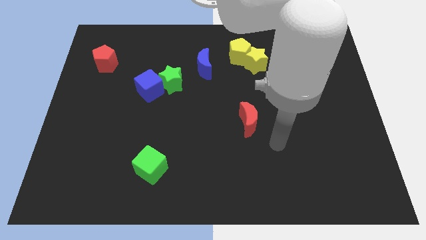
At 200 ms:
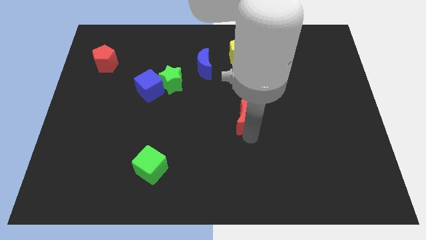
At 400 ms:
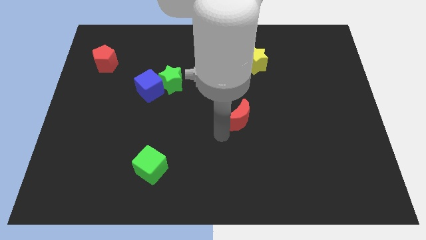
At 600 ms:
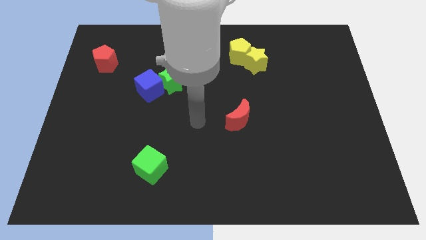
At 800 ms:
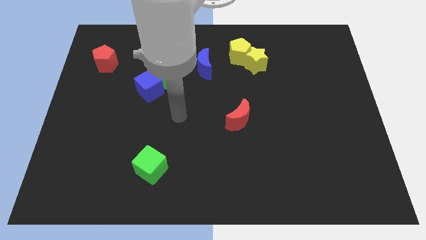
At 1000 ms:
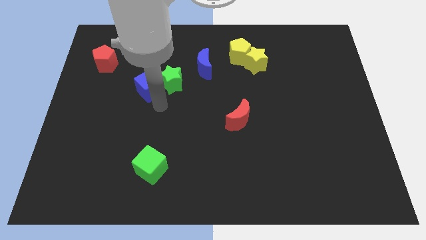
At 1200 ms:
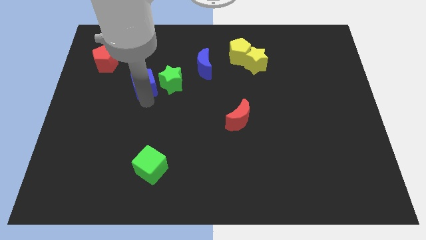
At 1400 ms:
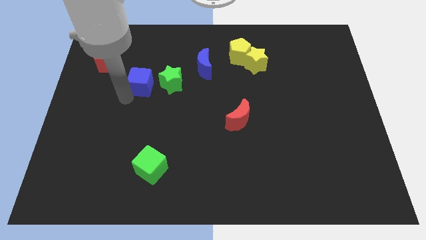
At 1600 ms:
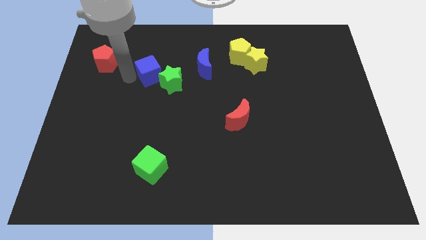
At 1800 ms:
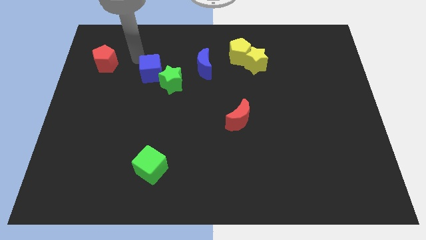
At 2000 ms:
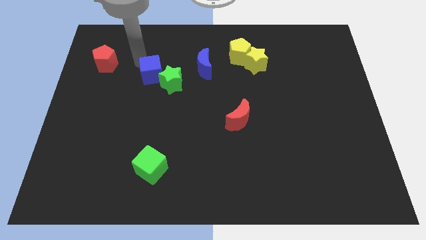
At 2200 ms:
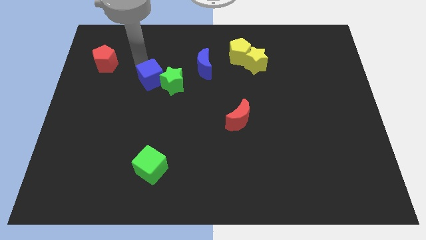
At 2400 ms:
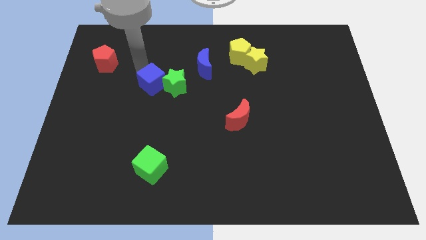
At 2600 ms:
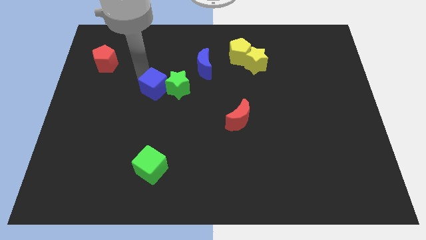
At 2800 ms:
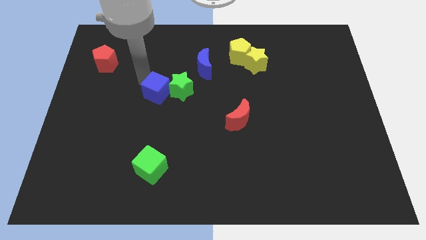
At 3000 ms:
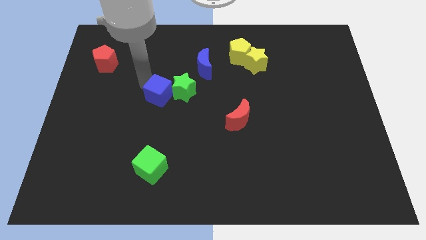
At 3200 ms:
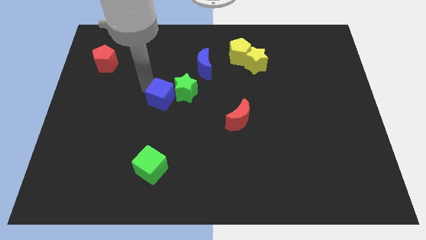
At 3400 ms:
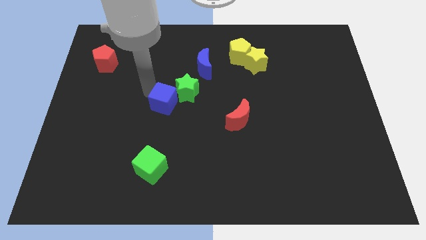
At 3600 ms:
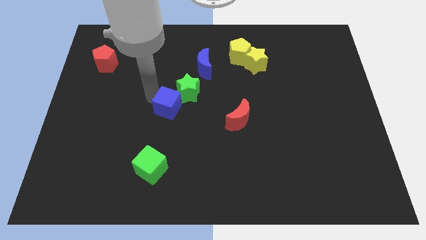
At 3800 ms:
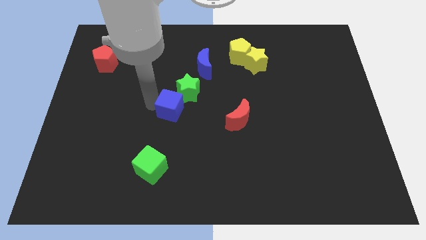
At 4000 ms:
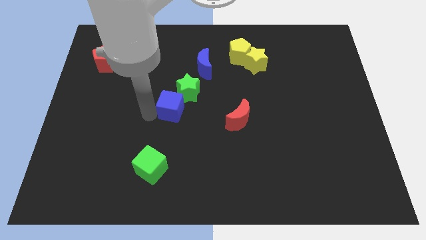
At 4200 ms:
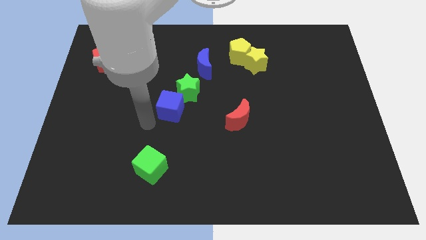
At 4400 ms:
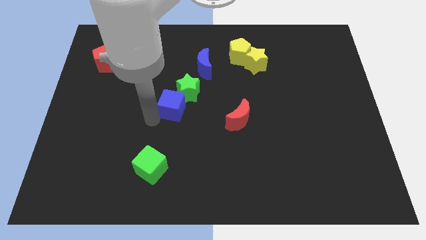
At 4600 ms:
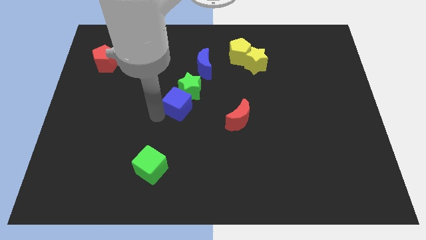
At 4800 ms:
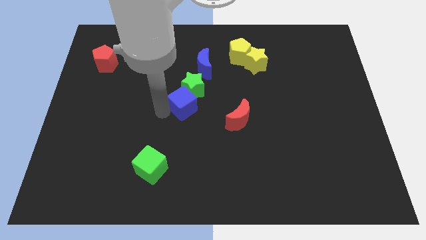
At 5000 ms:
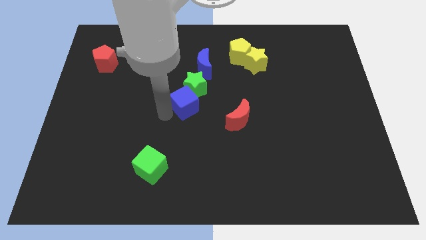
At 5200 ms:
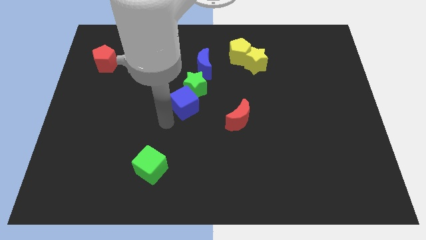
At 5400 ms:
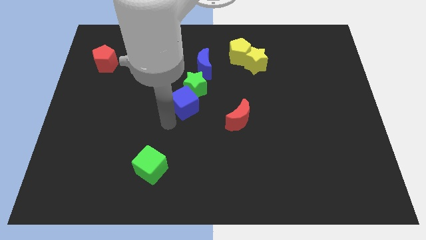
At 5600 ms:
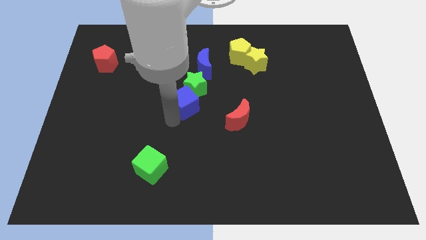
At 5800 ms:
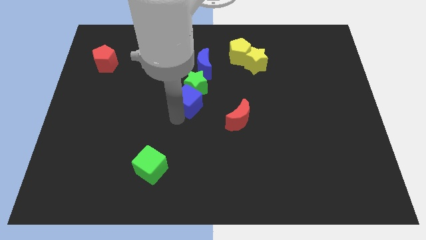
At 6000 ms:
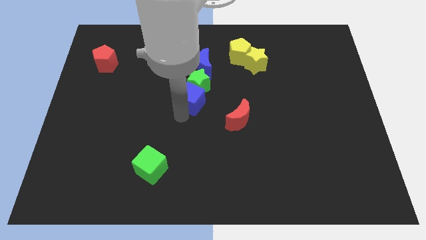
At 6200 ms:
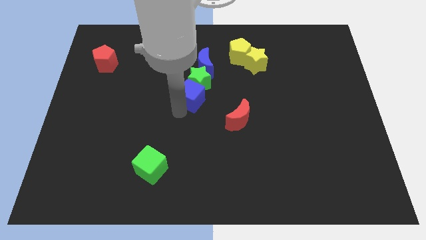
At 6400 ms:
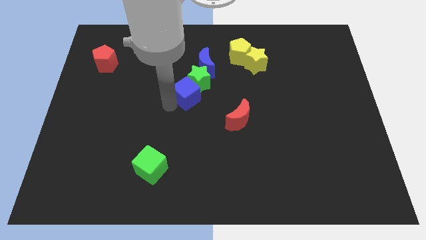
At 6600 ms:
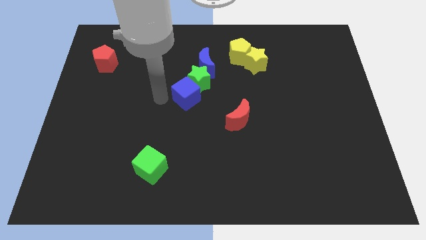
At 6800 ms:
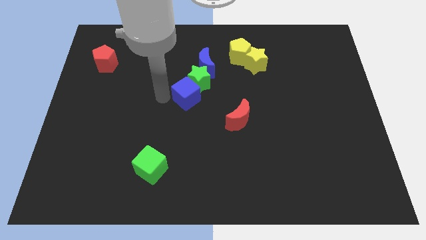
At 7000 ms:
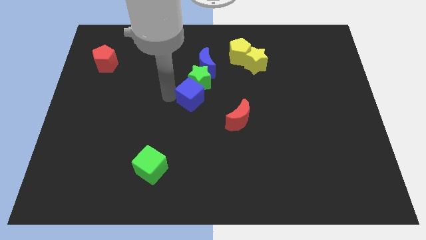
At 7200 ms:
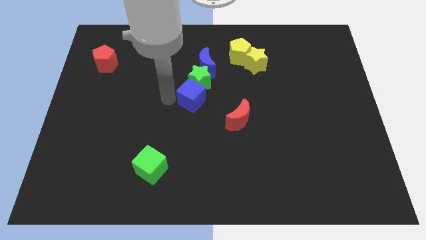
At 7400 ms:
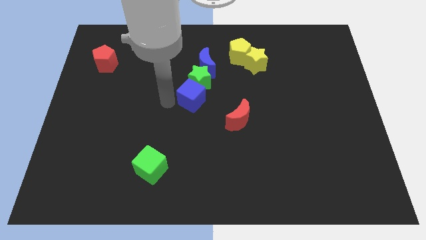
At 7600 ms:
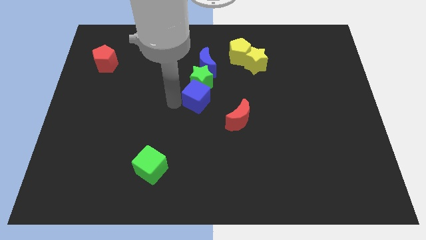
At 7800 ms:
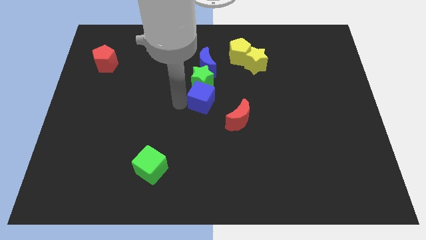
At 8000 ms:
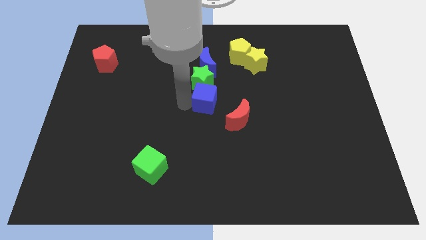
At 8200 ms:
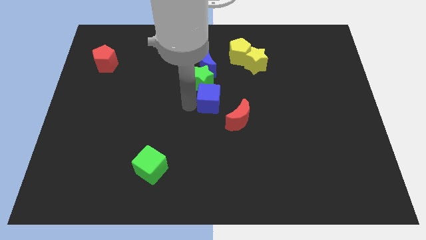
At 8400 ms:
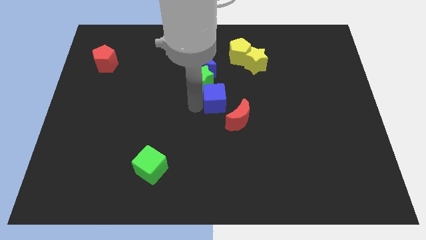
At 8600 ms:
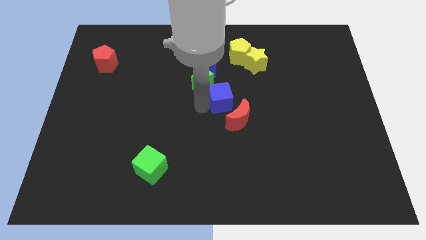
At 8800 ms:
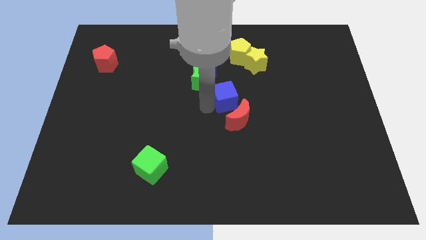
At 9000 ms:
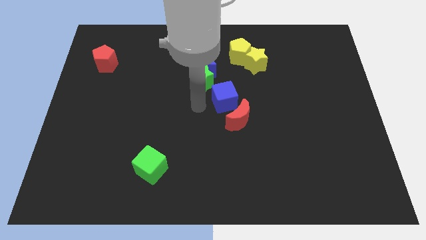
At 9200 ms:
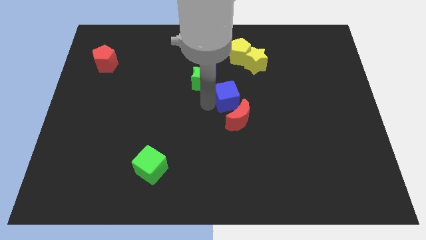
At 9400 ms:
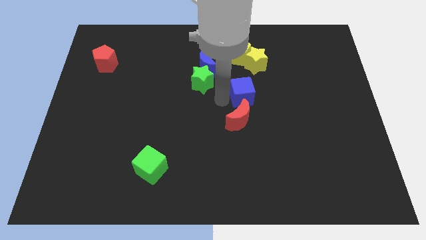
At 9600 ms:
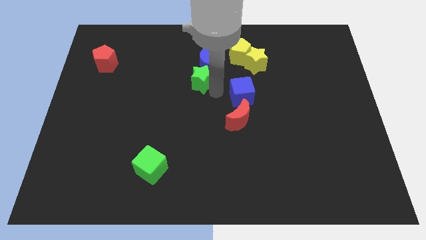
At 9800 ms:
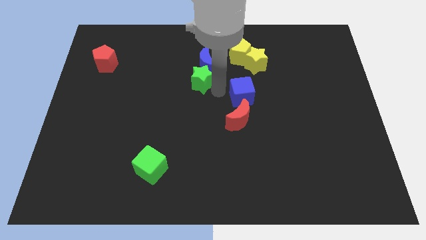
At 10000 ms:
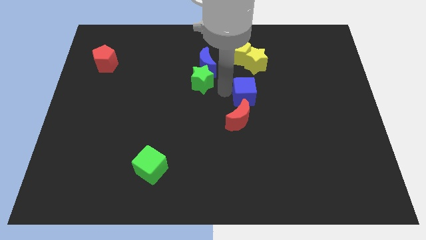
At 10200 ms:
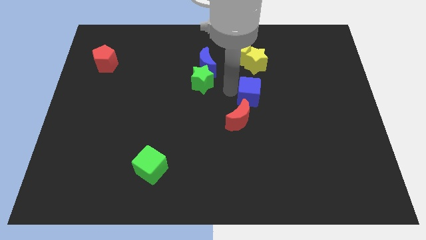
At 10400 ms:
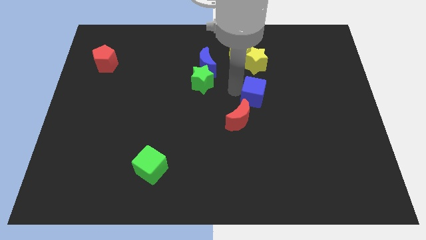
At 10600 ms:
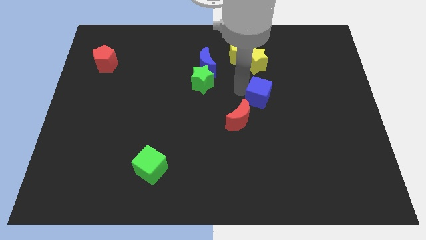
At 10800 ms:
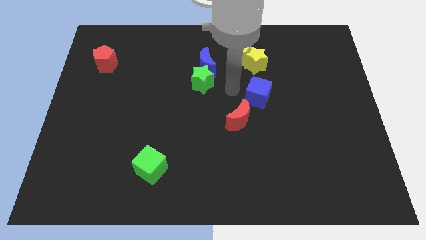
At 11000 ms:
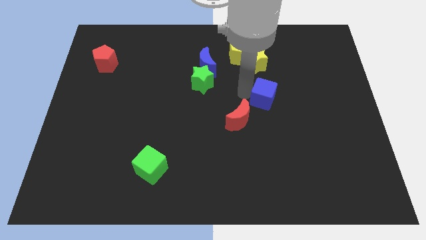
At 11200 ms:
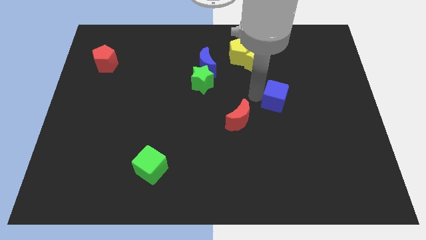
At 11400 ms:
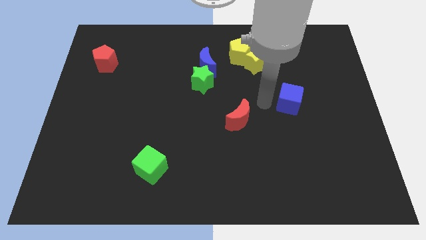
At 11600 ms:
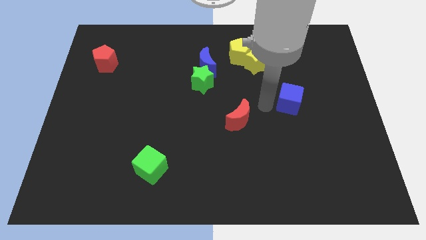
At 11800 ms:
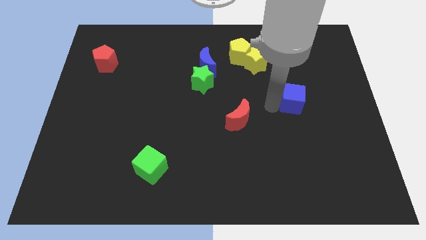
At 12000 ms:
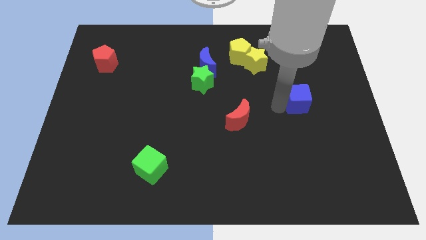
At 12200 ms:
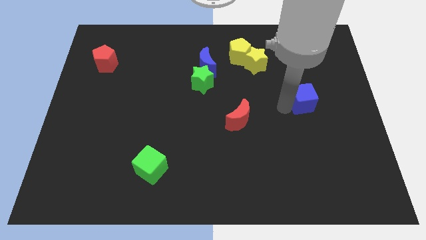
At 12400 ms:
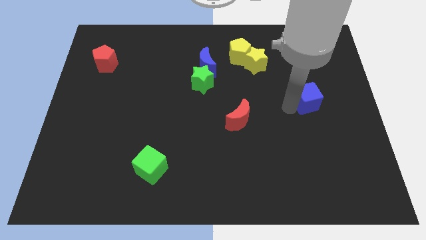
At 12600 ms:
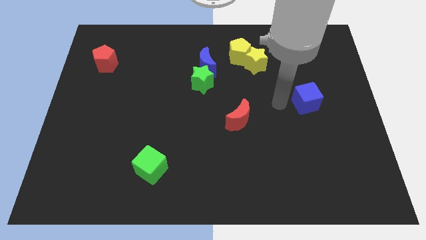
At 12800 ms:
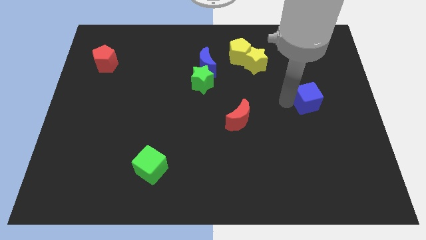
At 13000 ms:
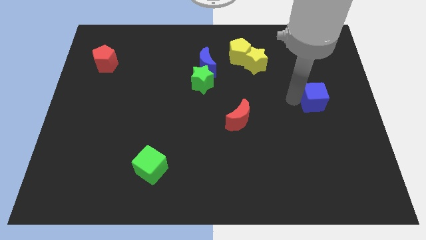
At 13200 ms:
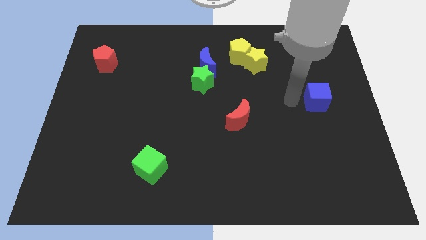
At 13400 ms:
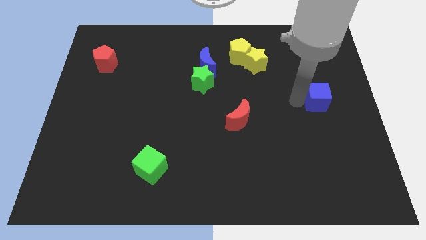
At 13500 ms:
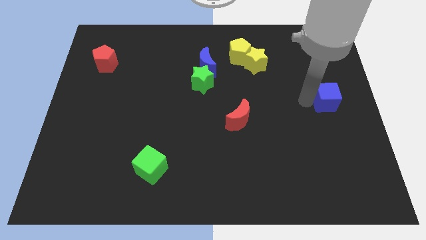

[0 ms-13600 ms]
put the blue cube to the center right
